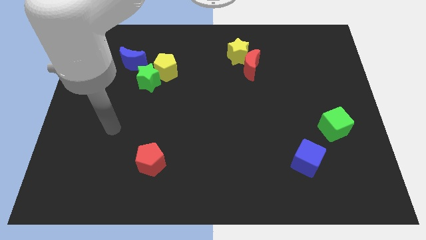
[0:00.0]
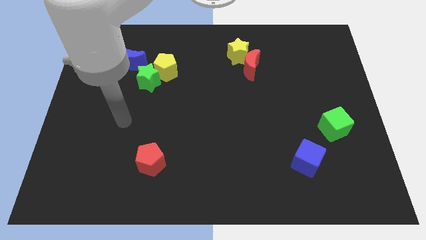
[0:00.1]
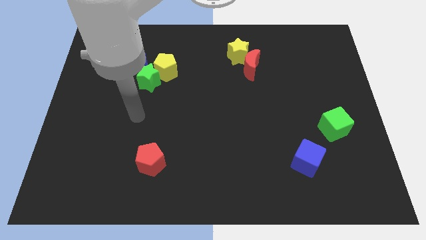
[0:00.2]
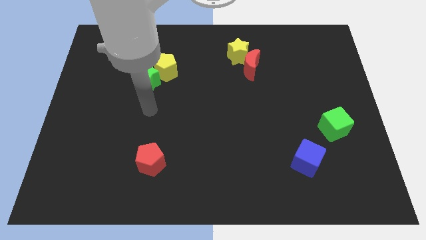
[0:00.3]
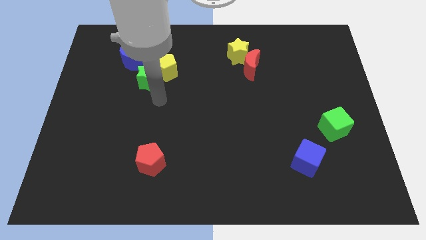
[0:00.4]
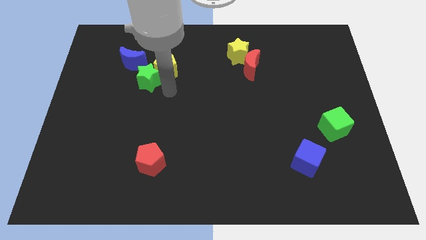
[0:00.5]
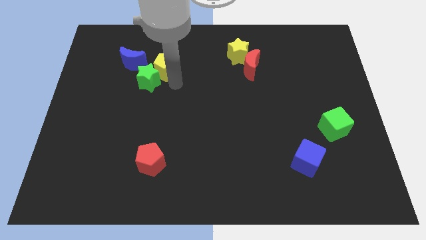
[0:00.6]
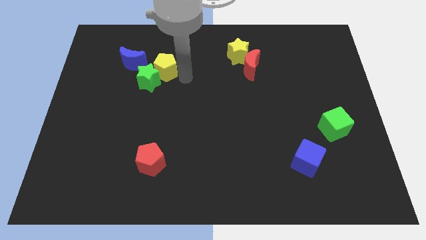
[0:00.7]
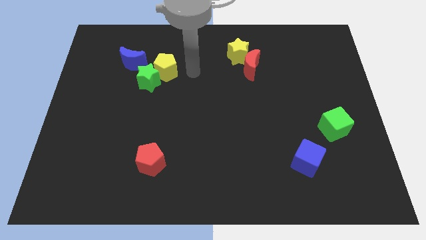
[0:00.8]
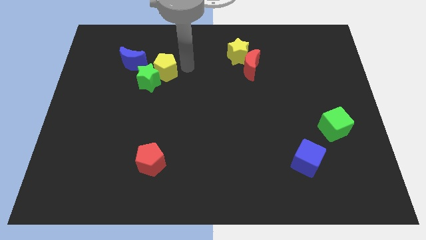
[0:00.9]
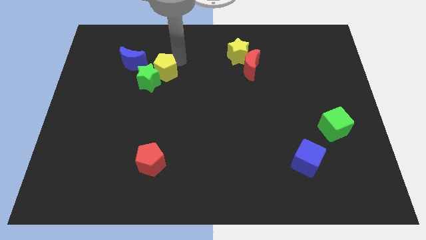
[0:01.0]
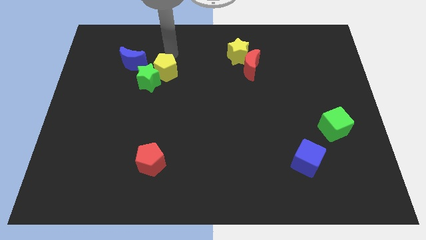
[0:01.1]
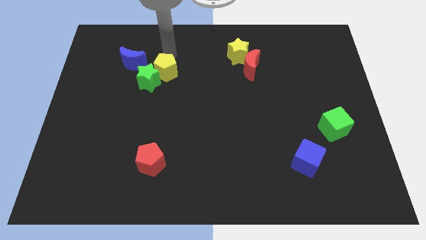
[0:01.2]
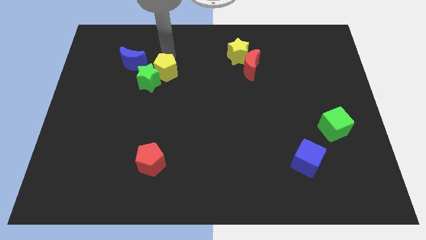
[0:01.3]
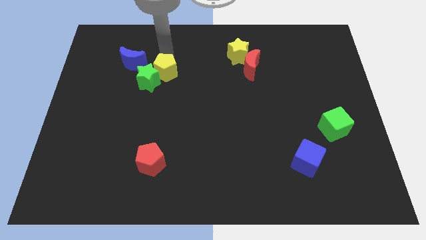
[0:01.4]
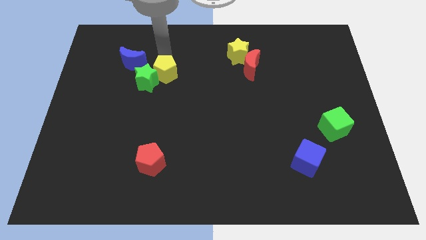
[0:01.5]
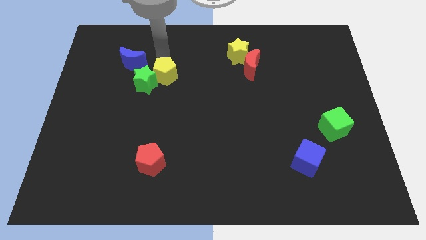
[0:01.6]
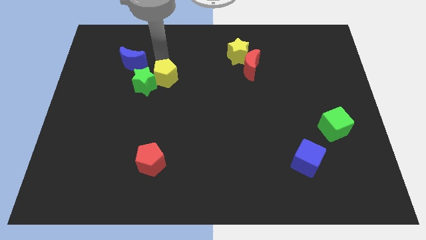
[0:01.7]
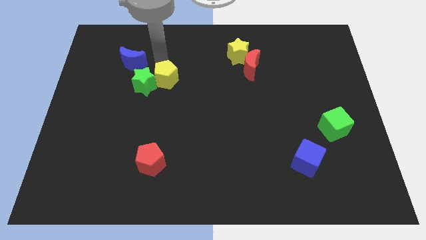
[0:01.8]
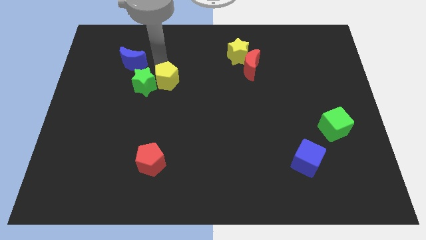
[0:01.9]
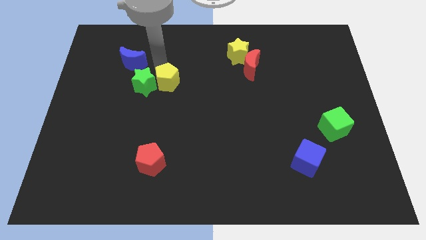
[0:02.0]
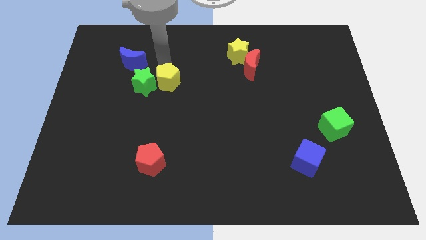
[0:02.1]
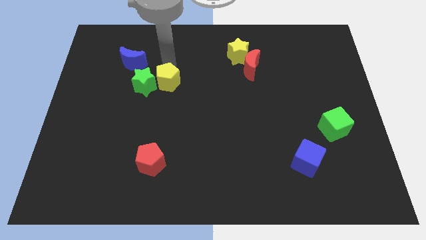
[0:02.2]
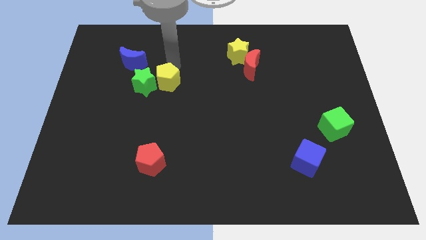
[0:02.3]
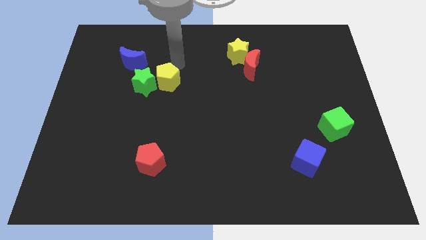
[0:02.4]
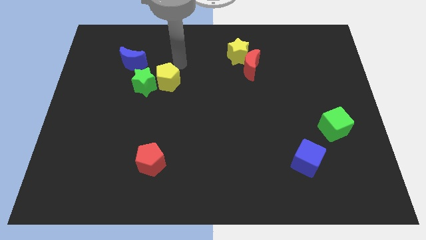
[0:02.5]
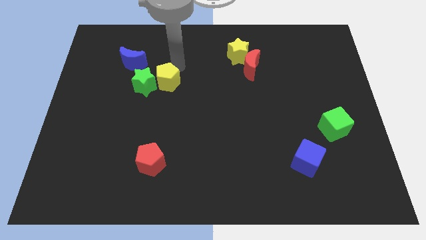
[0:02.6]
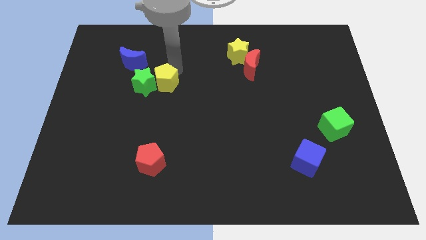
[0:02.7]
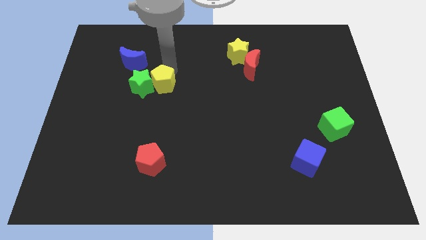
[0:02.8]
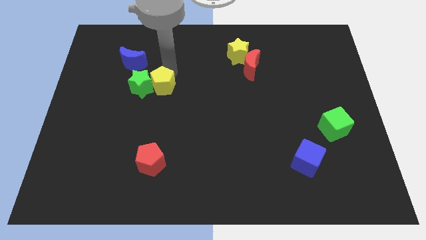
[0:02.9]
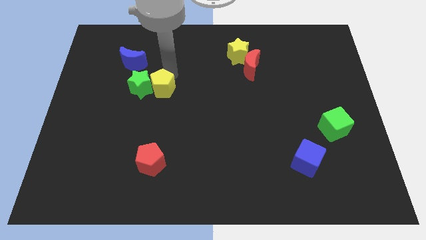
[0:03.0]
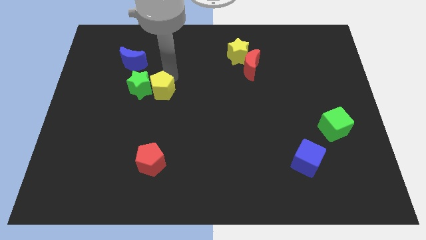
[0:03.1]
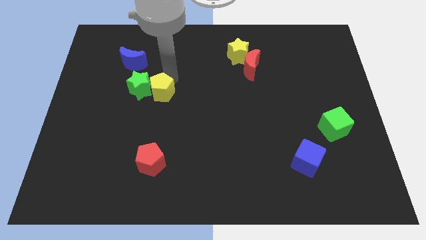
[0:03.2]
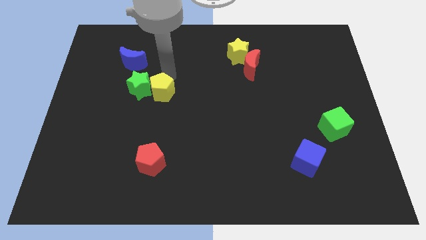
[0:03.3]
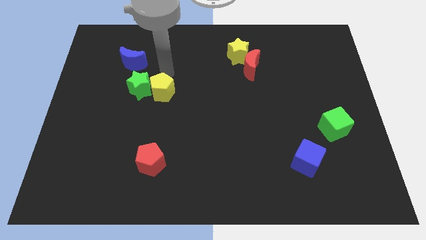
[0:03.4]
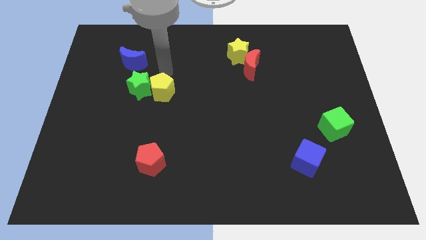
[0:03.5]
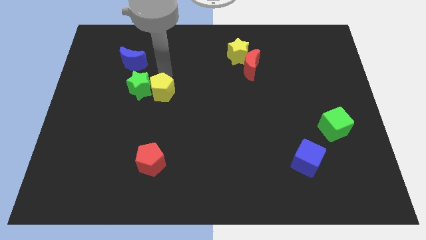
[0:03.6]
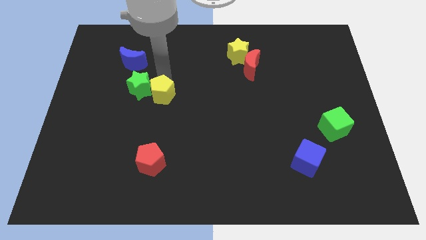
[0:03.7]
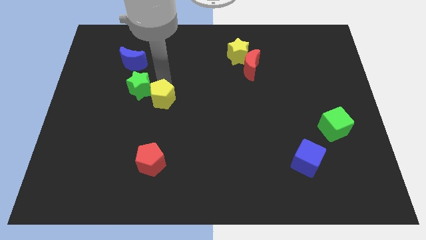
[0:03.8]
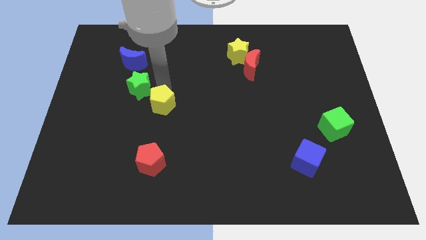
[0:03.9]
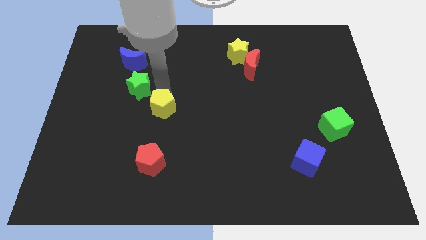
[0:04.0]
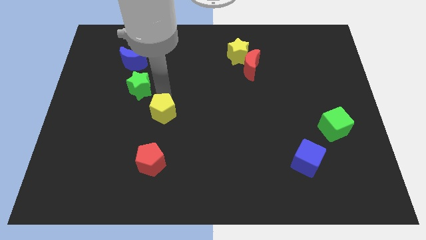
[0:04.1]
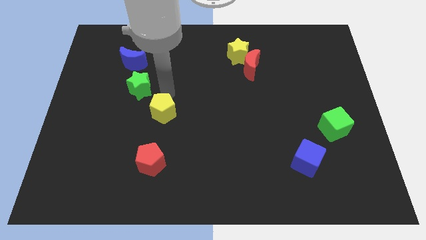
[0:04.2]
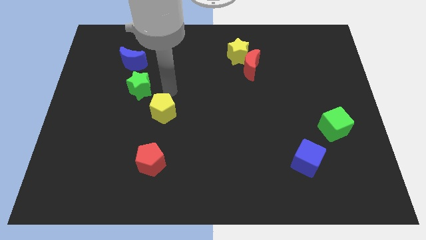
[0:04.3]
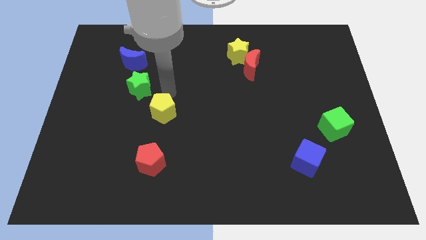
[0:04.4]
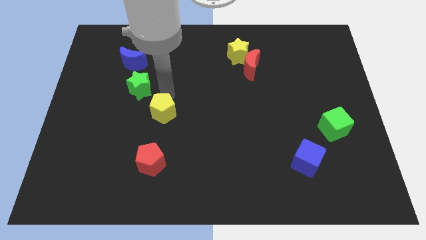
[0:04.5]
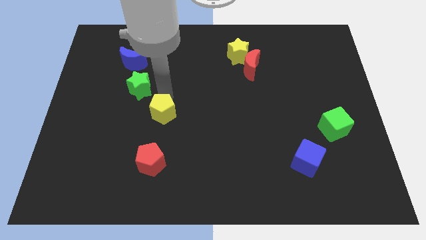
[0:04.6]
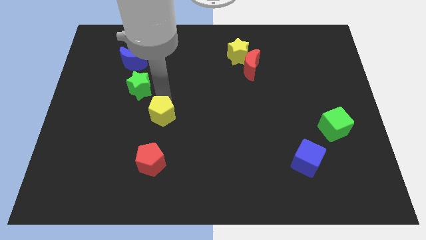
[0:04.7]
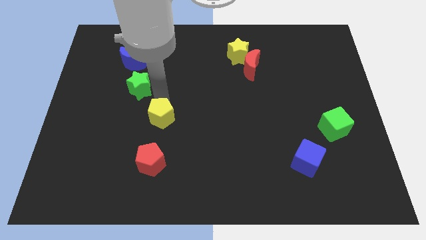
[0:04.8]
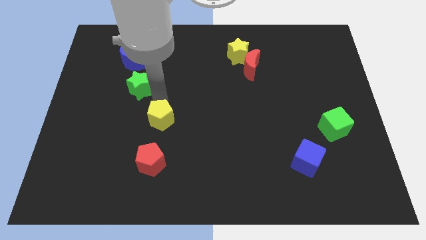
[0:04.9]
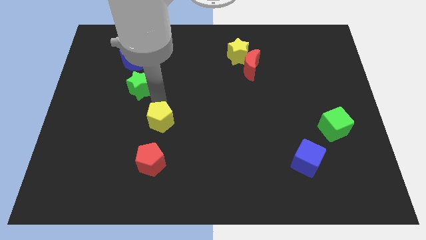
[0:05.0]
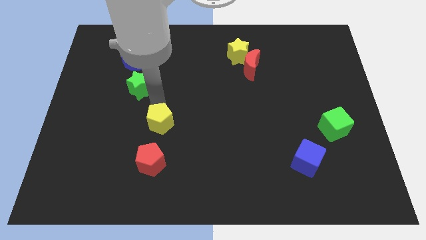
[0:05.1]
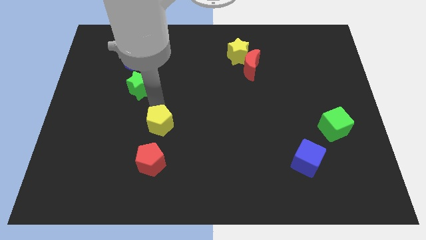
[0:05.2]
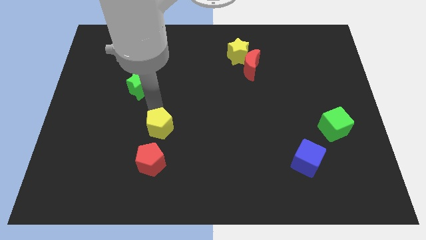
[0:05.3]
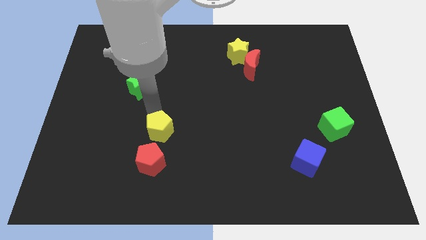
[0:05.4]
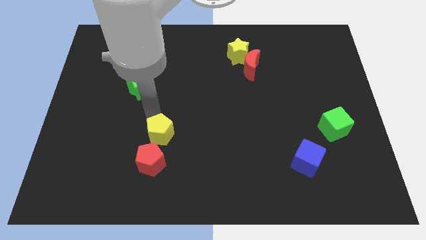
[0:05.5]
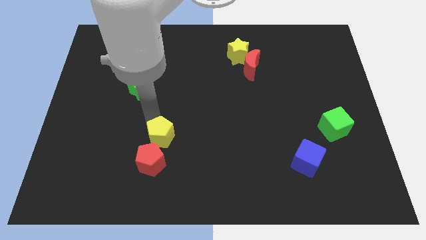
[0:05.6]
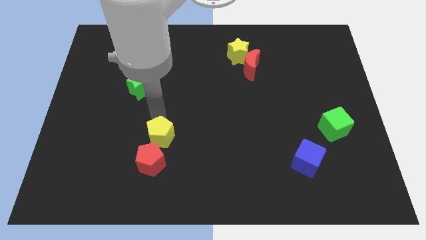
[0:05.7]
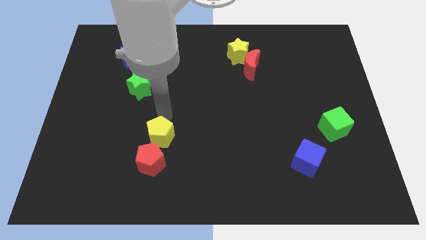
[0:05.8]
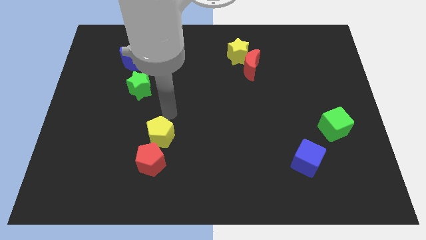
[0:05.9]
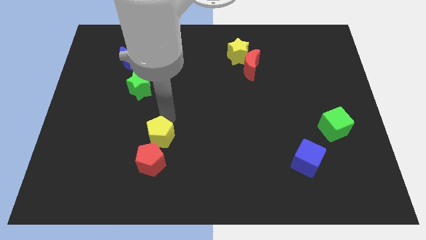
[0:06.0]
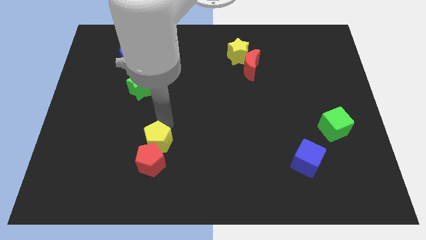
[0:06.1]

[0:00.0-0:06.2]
move the yellow pentagon close to the red pentagon

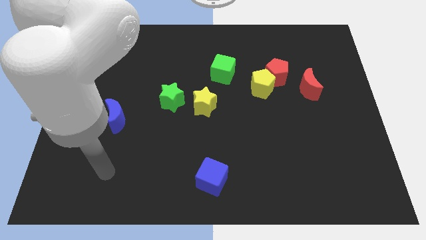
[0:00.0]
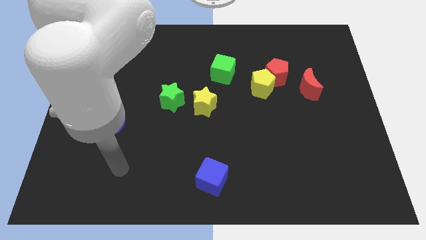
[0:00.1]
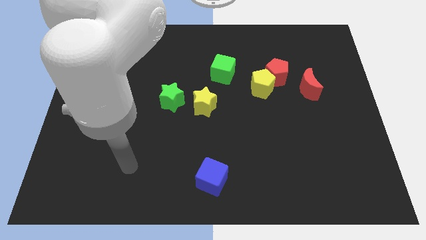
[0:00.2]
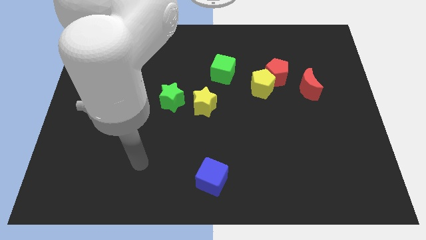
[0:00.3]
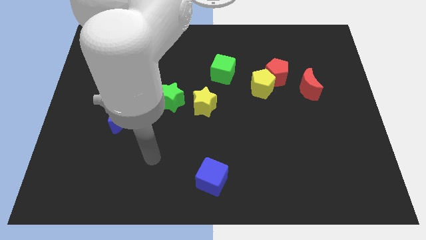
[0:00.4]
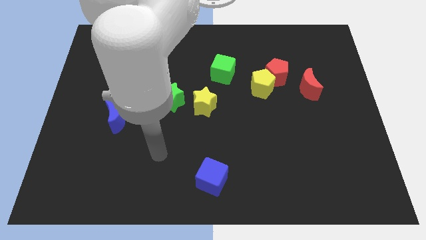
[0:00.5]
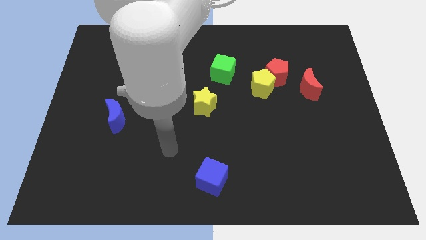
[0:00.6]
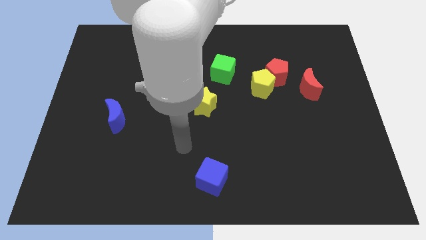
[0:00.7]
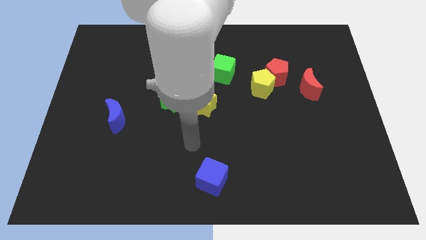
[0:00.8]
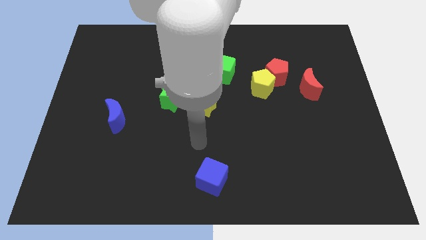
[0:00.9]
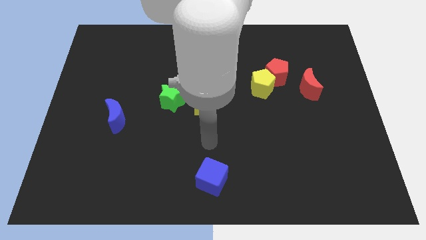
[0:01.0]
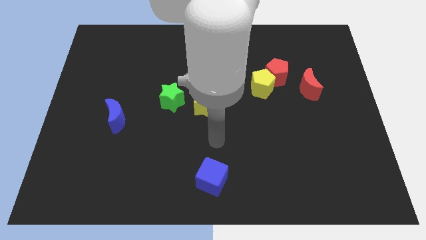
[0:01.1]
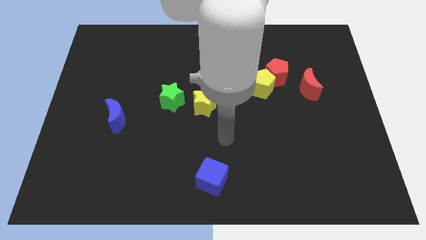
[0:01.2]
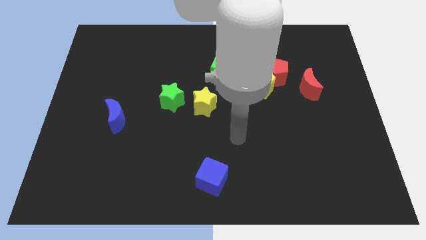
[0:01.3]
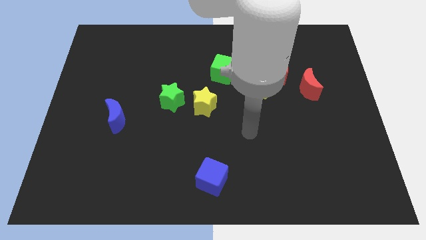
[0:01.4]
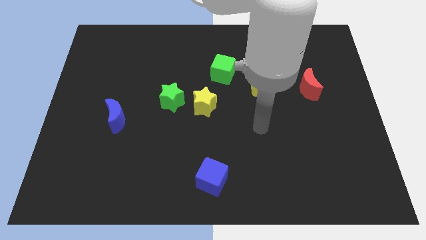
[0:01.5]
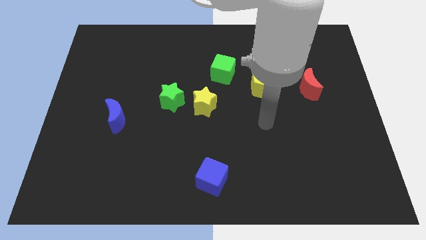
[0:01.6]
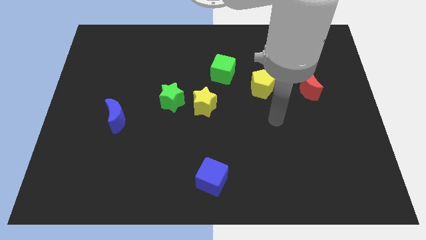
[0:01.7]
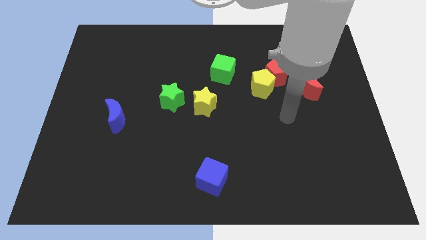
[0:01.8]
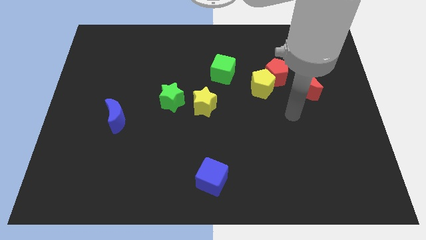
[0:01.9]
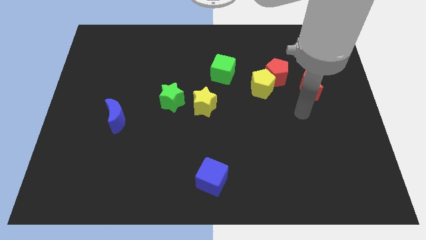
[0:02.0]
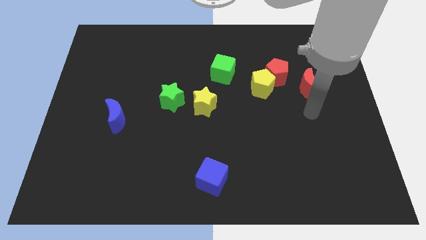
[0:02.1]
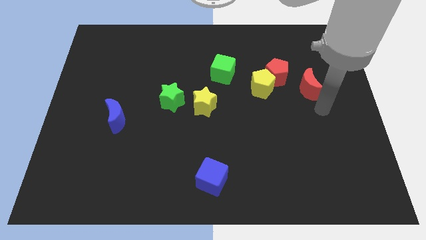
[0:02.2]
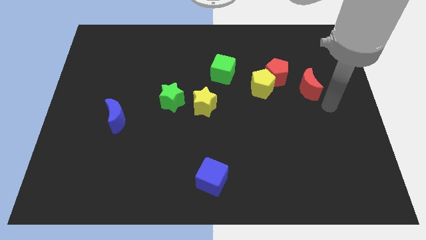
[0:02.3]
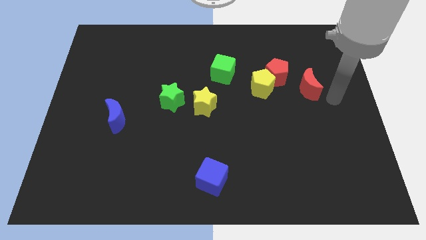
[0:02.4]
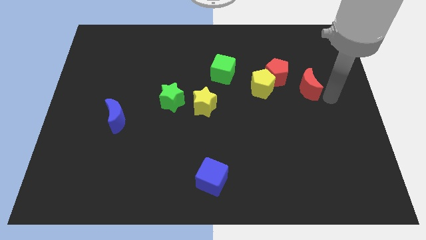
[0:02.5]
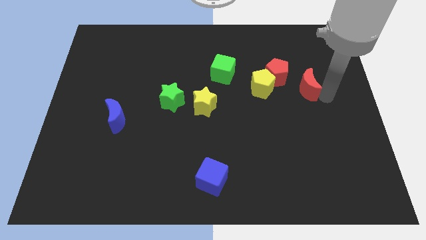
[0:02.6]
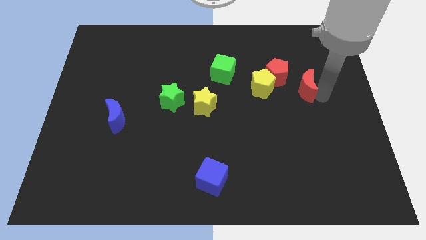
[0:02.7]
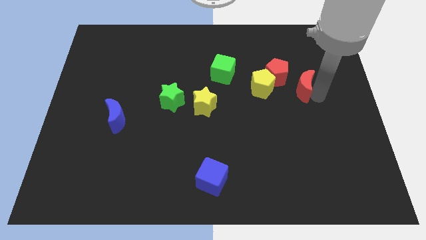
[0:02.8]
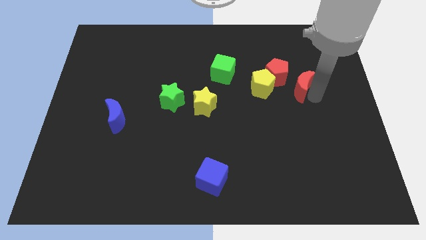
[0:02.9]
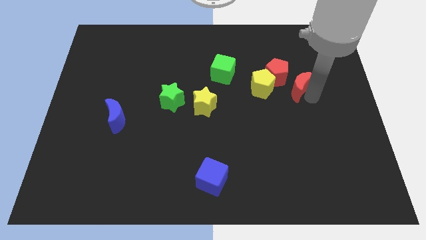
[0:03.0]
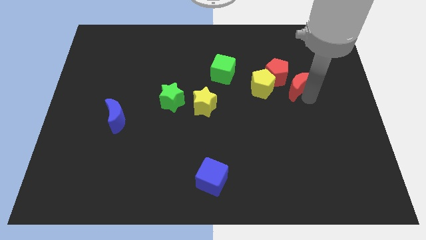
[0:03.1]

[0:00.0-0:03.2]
put the red moon close to the red pentagon
